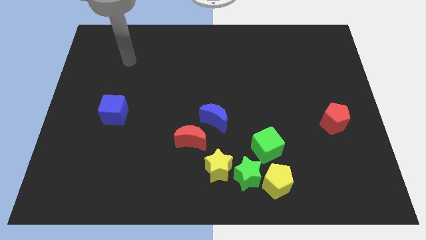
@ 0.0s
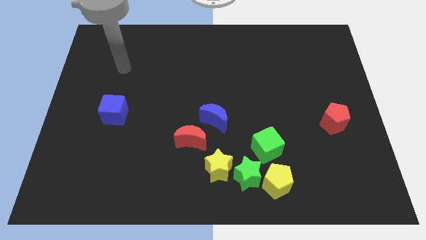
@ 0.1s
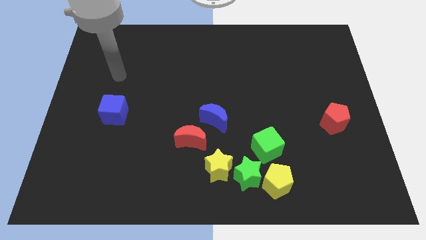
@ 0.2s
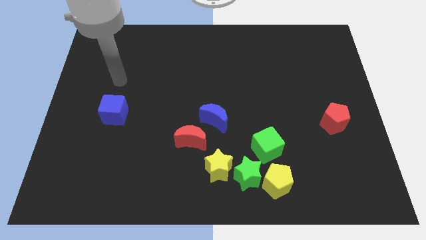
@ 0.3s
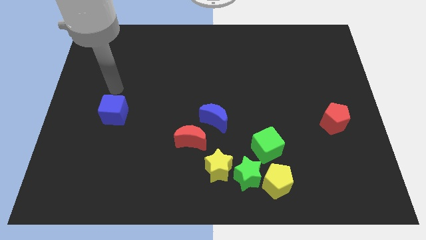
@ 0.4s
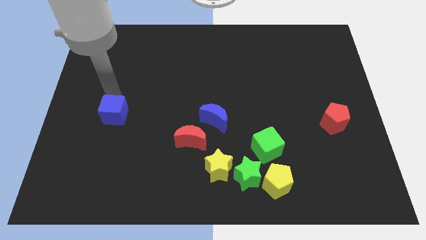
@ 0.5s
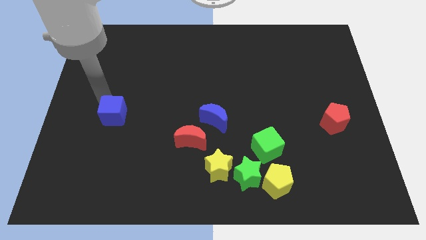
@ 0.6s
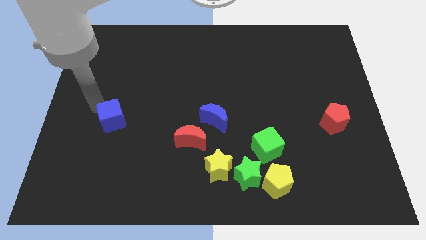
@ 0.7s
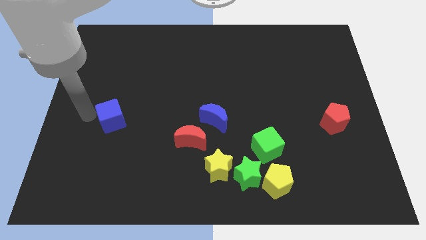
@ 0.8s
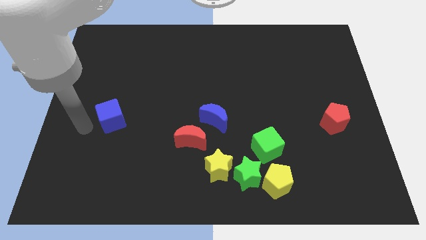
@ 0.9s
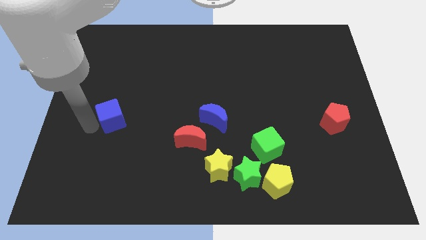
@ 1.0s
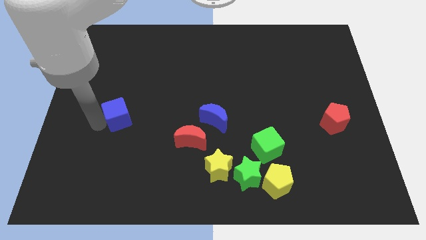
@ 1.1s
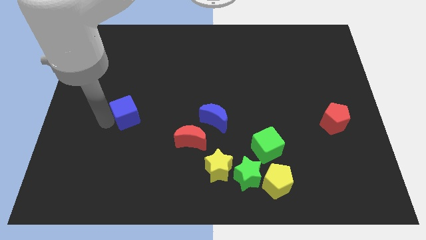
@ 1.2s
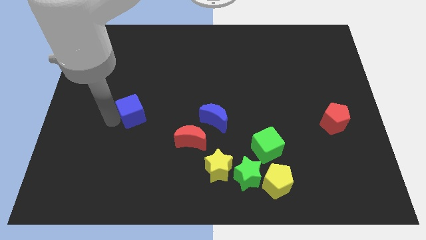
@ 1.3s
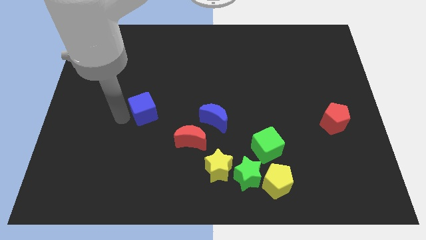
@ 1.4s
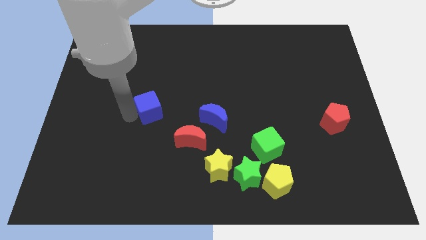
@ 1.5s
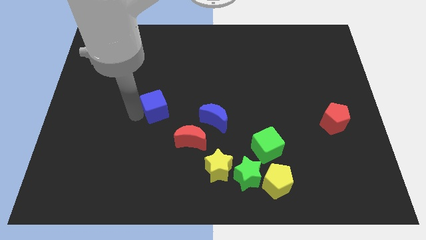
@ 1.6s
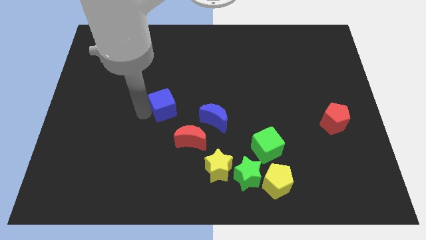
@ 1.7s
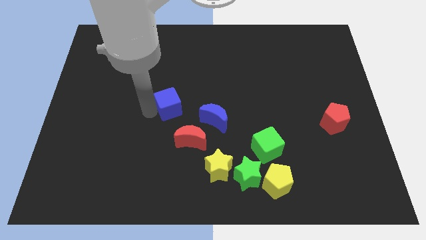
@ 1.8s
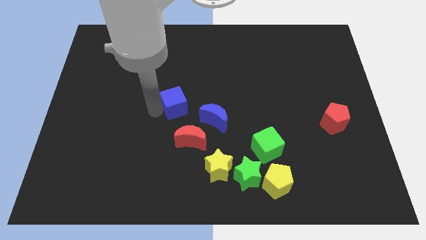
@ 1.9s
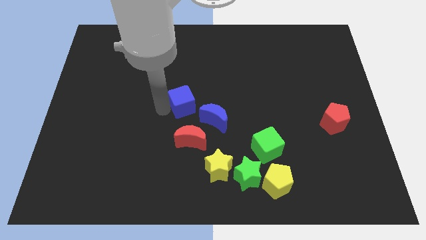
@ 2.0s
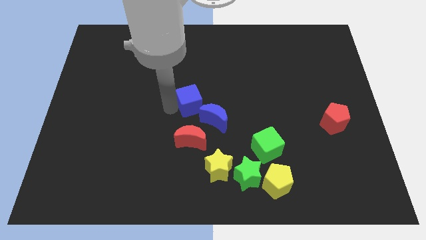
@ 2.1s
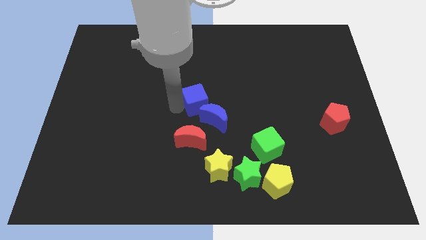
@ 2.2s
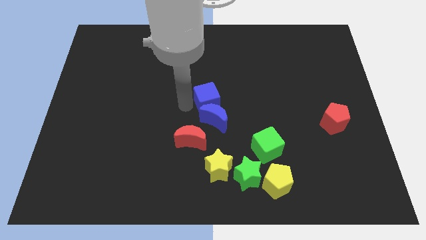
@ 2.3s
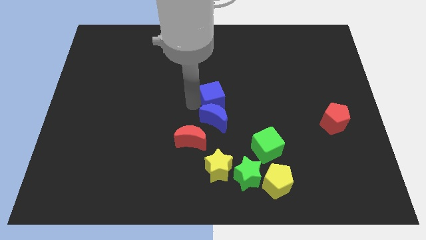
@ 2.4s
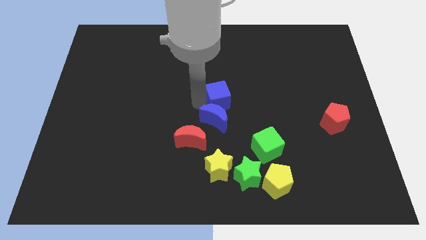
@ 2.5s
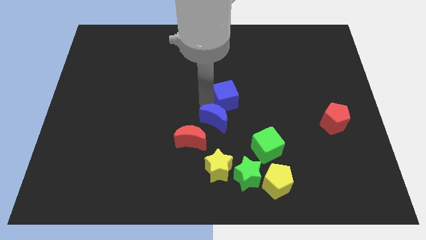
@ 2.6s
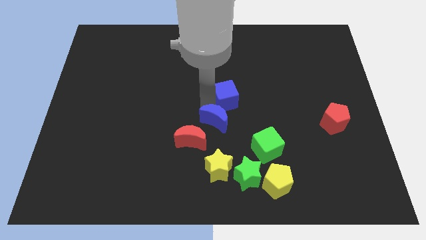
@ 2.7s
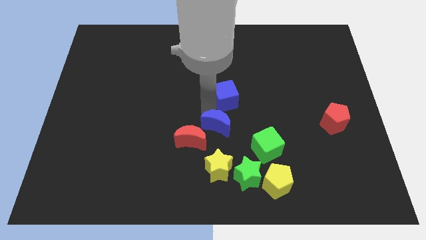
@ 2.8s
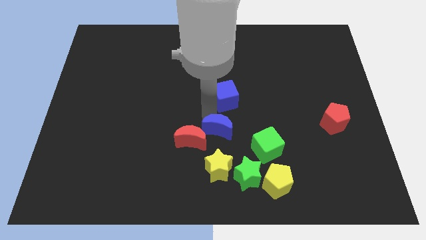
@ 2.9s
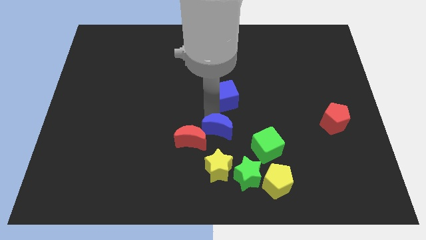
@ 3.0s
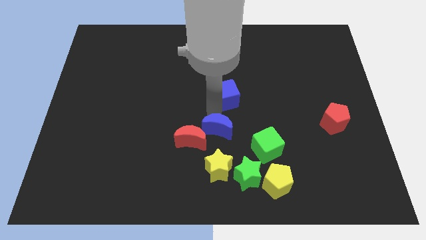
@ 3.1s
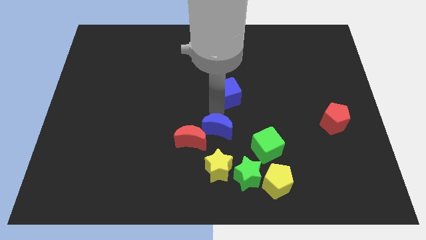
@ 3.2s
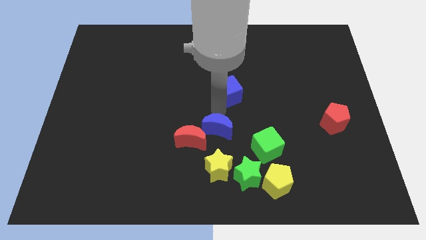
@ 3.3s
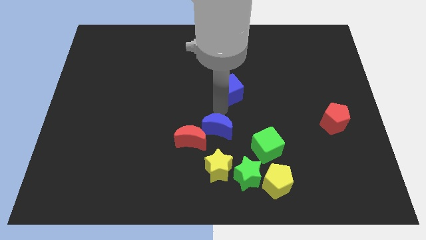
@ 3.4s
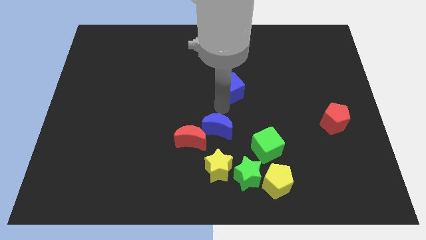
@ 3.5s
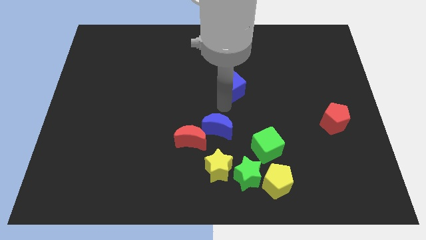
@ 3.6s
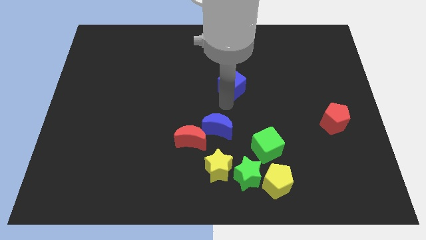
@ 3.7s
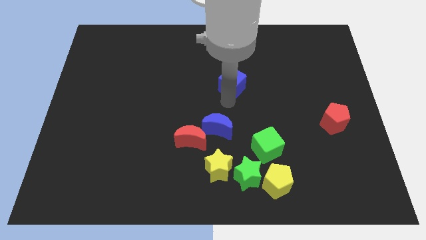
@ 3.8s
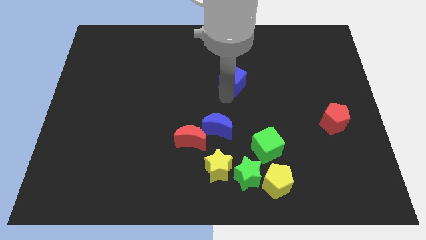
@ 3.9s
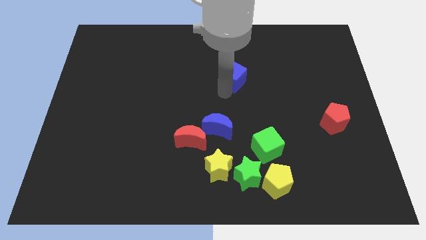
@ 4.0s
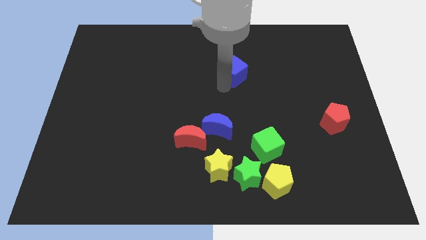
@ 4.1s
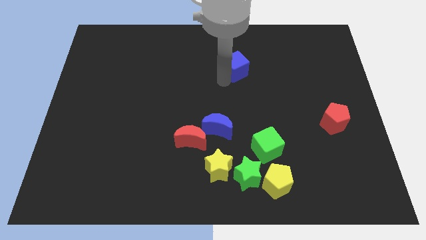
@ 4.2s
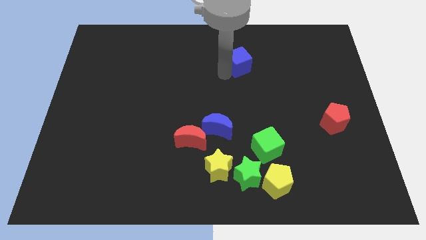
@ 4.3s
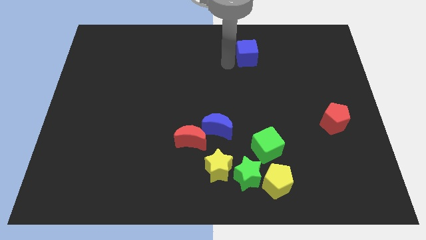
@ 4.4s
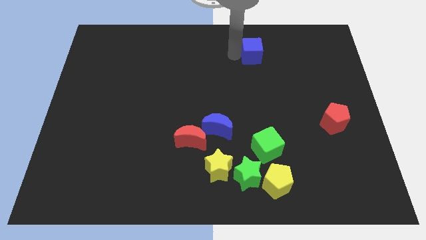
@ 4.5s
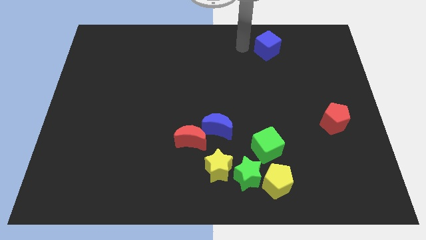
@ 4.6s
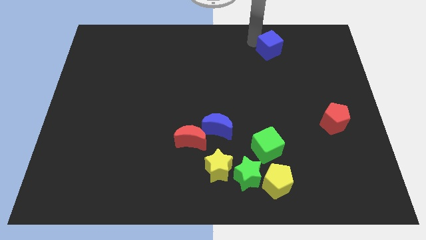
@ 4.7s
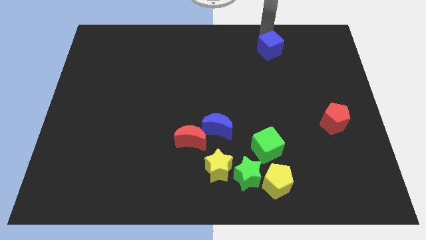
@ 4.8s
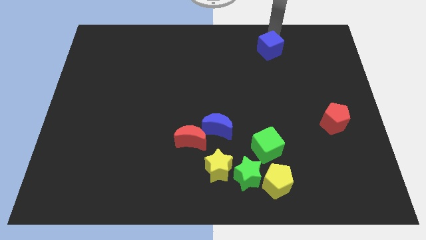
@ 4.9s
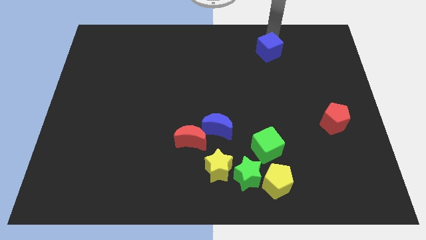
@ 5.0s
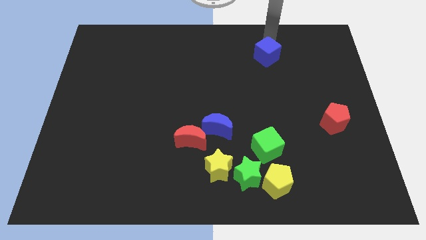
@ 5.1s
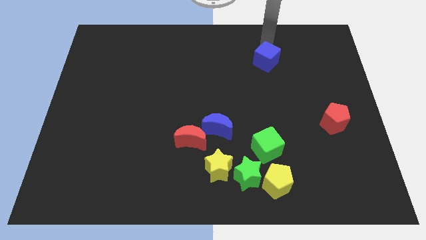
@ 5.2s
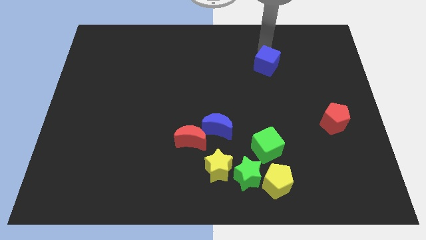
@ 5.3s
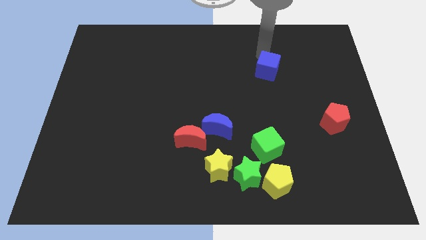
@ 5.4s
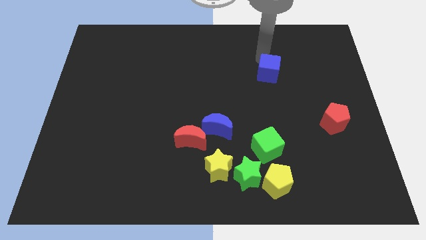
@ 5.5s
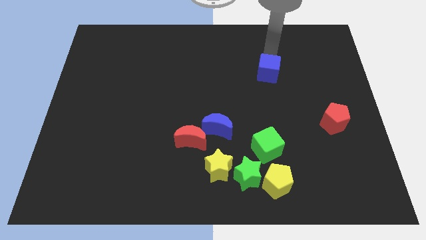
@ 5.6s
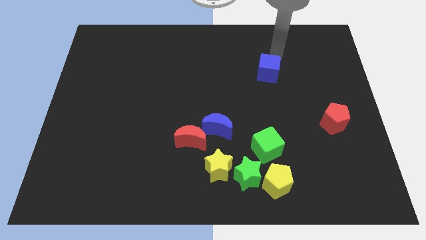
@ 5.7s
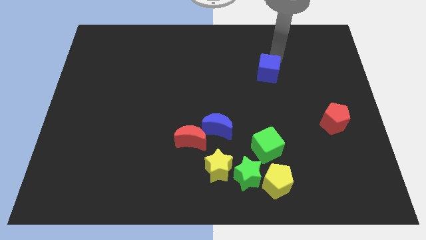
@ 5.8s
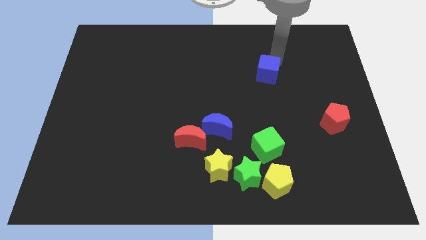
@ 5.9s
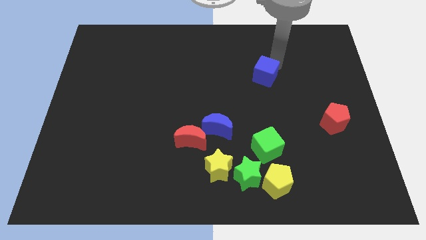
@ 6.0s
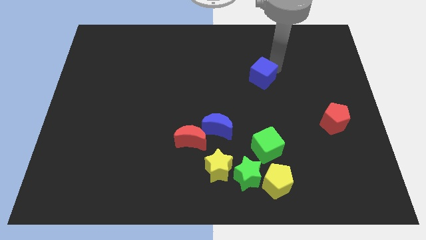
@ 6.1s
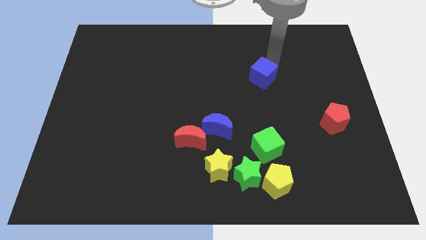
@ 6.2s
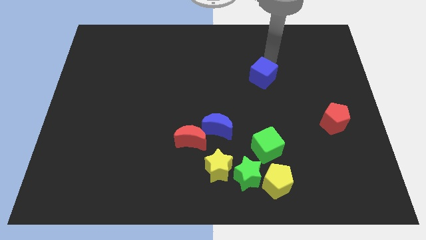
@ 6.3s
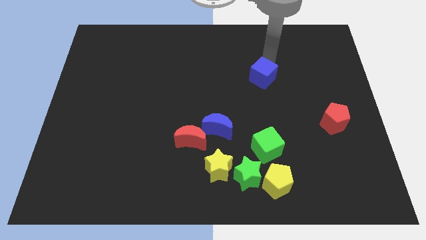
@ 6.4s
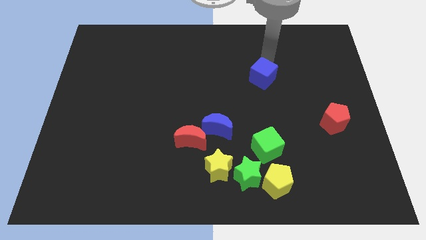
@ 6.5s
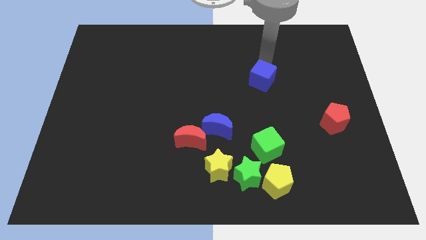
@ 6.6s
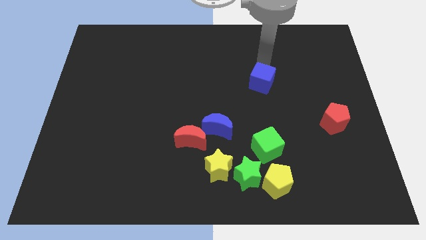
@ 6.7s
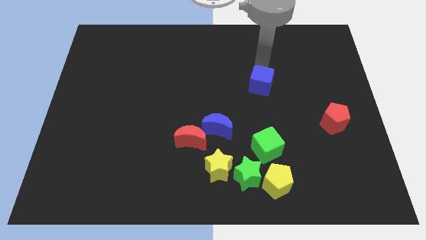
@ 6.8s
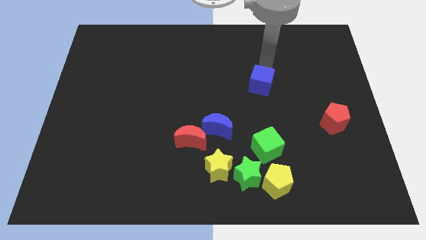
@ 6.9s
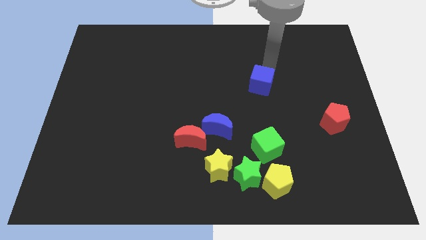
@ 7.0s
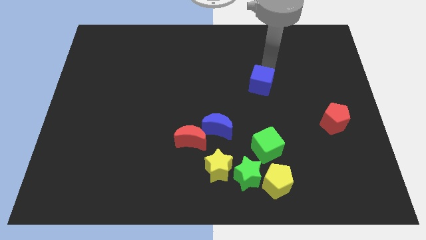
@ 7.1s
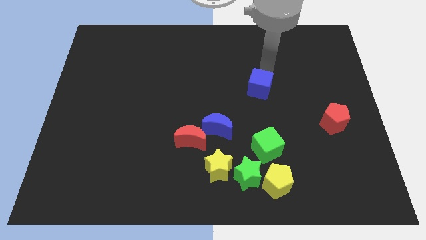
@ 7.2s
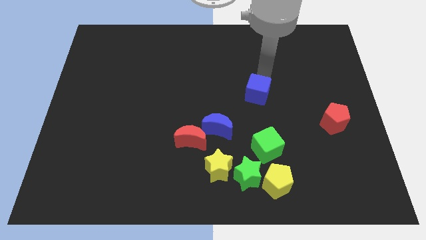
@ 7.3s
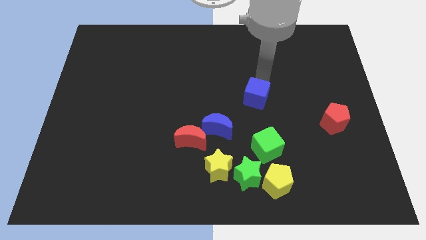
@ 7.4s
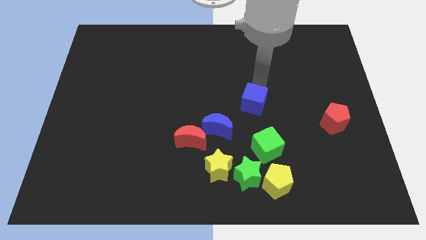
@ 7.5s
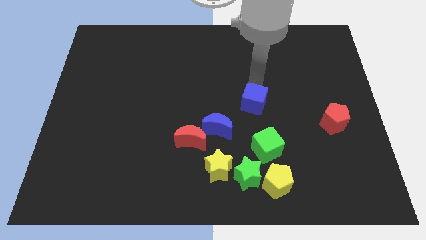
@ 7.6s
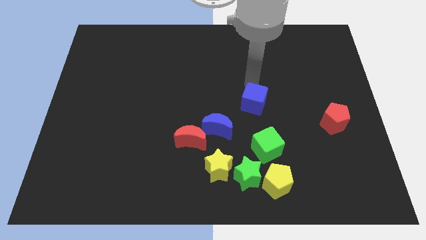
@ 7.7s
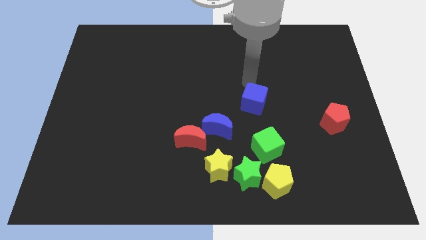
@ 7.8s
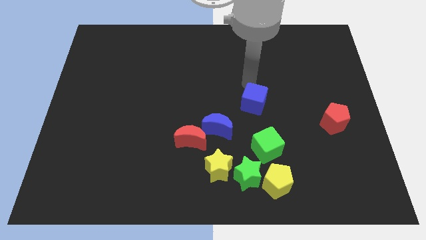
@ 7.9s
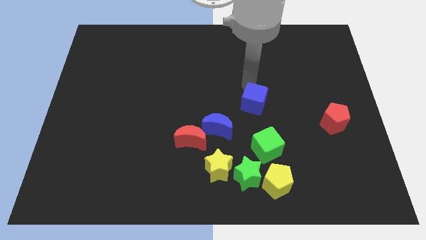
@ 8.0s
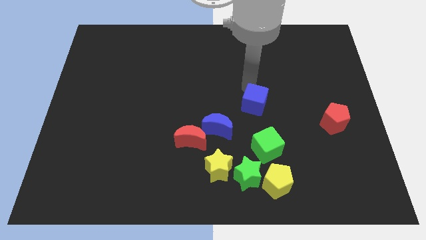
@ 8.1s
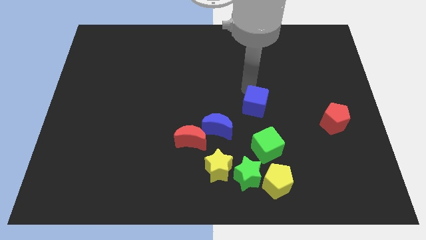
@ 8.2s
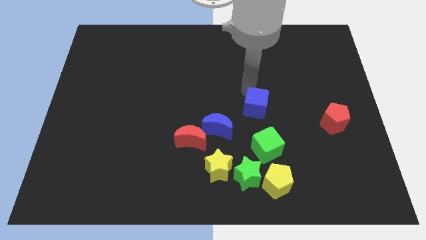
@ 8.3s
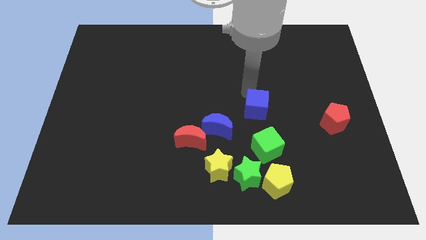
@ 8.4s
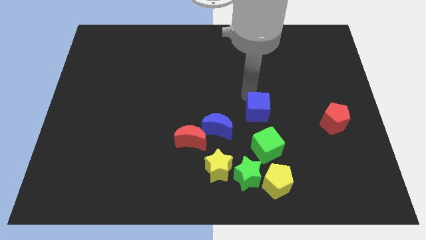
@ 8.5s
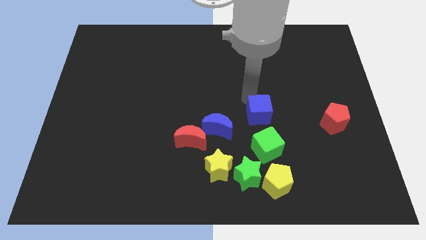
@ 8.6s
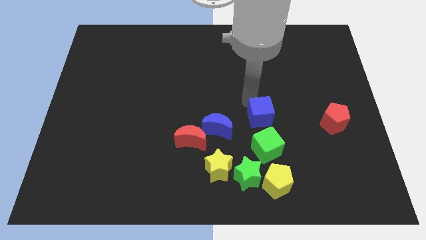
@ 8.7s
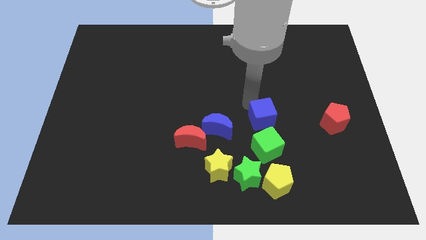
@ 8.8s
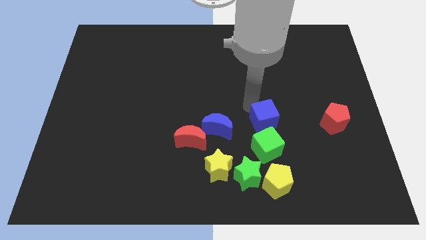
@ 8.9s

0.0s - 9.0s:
push the blue cube to the top of the yellow pentagon
